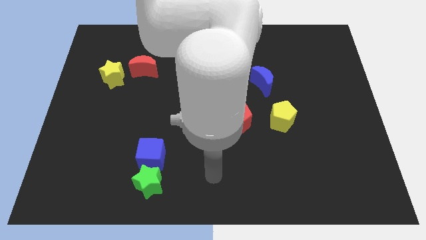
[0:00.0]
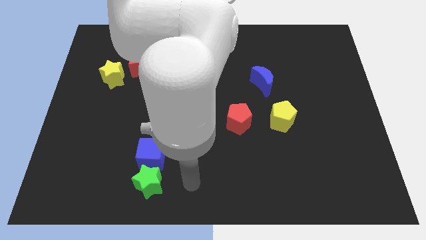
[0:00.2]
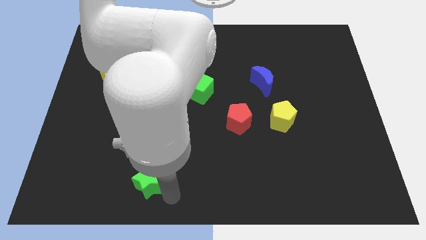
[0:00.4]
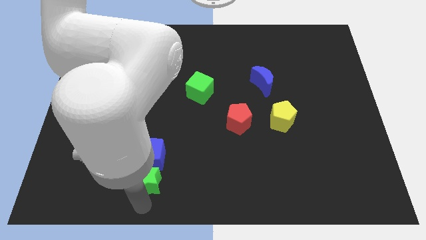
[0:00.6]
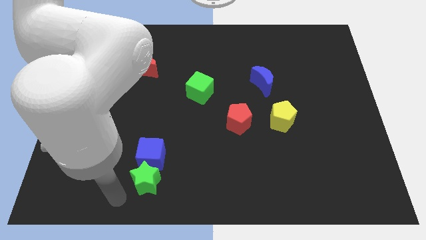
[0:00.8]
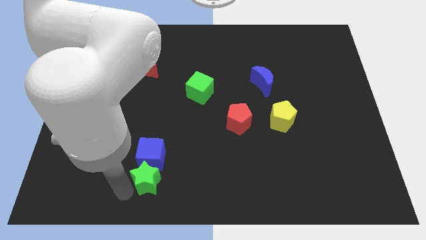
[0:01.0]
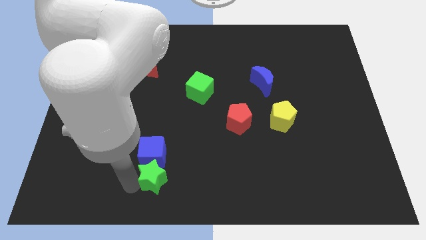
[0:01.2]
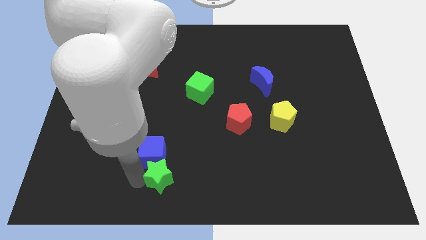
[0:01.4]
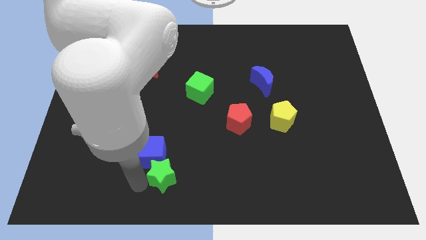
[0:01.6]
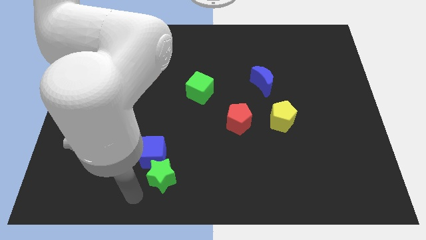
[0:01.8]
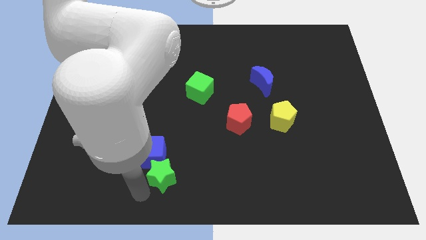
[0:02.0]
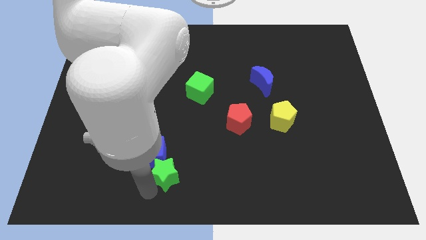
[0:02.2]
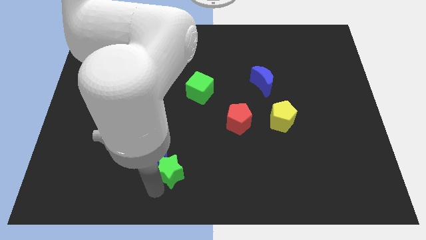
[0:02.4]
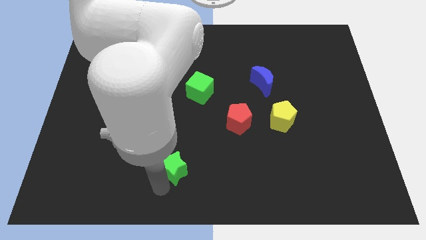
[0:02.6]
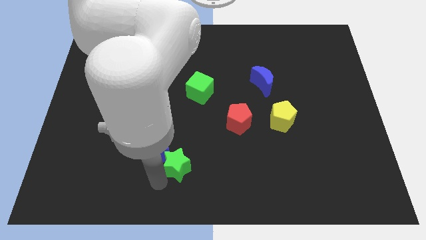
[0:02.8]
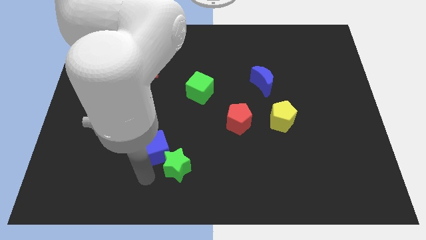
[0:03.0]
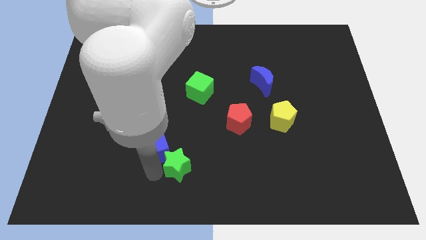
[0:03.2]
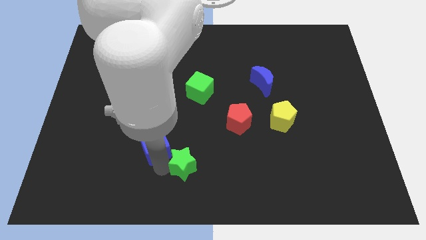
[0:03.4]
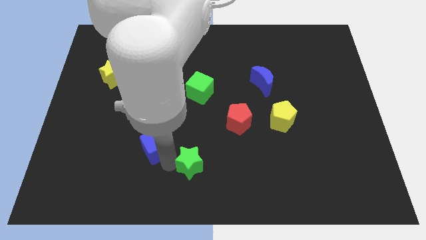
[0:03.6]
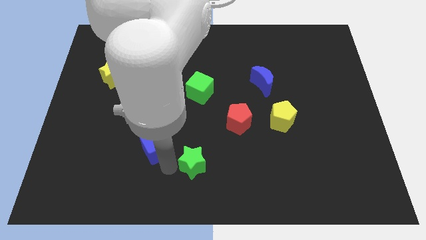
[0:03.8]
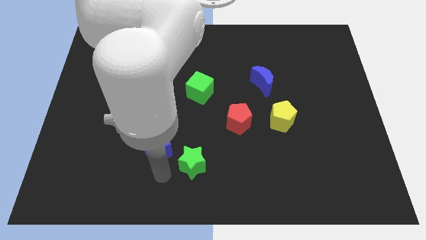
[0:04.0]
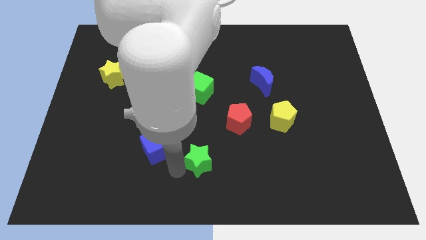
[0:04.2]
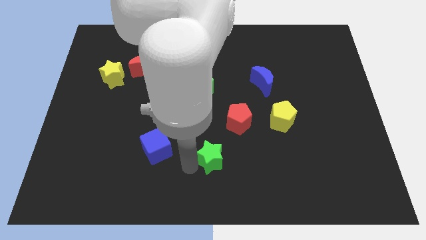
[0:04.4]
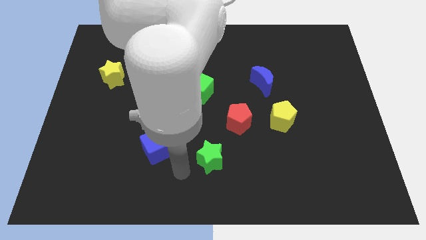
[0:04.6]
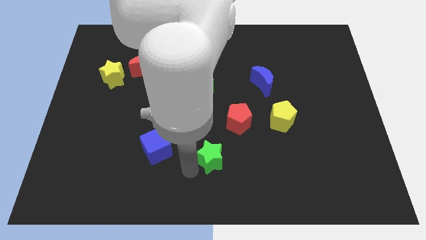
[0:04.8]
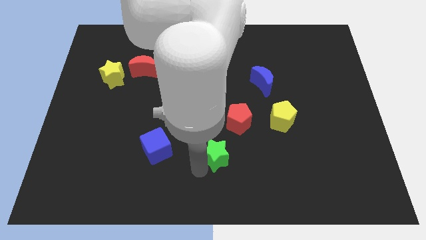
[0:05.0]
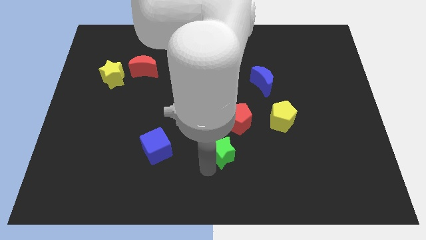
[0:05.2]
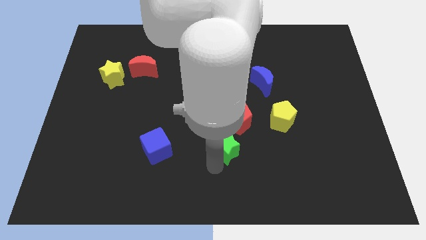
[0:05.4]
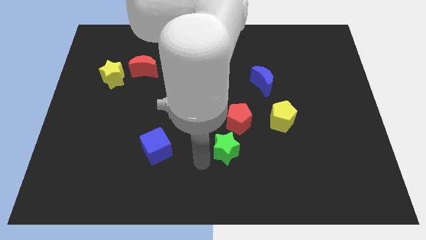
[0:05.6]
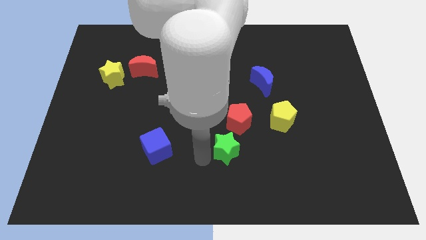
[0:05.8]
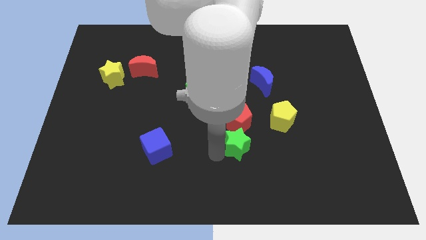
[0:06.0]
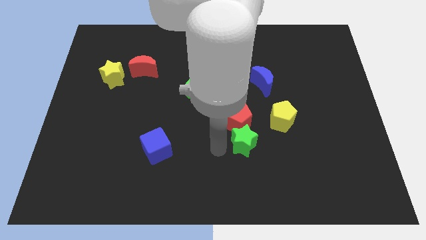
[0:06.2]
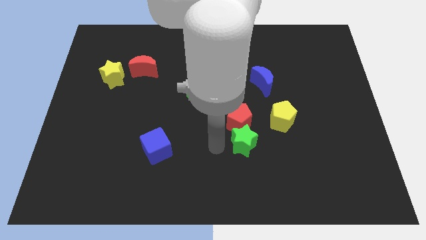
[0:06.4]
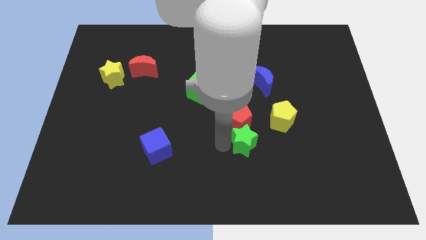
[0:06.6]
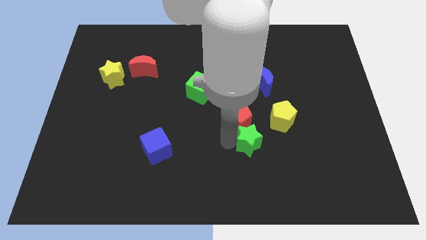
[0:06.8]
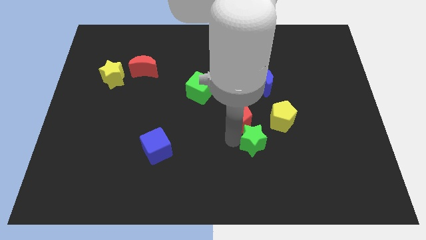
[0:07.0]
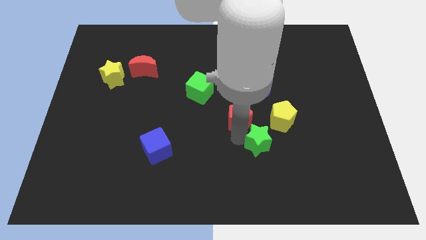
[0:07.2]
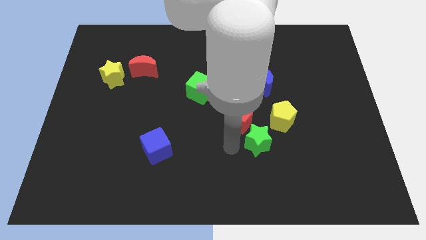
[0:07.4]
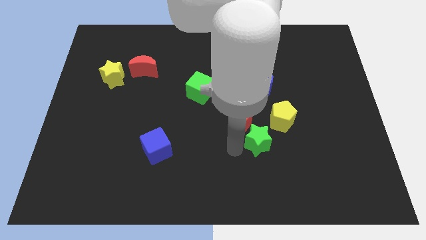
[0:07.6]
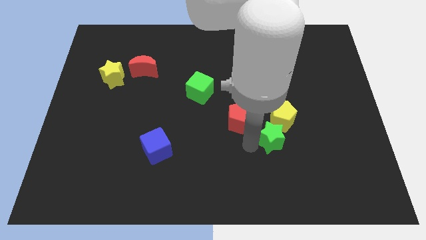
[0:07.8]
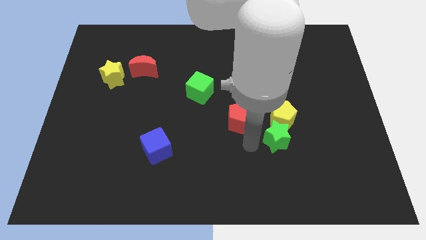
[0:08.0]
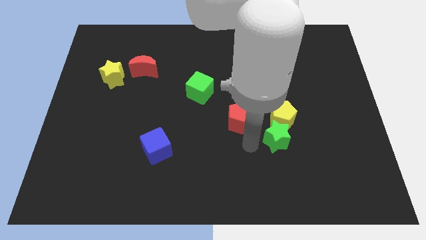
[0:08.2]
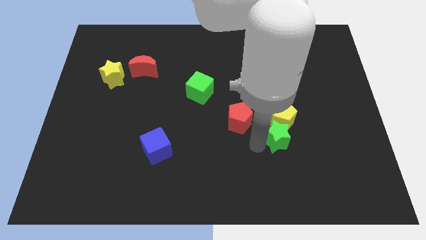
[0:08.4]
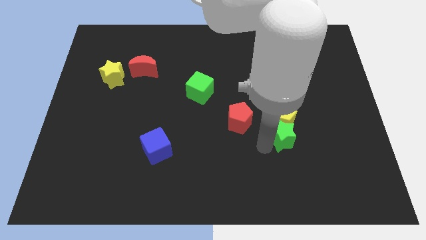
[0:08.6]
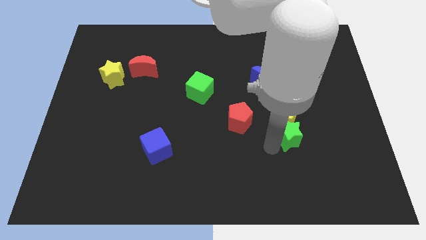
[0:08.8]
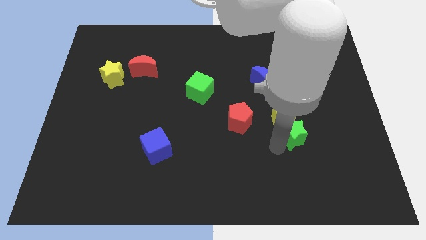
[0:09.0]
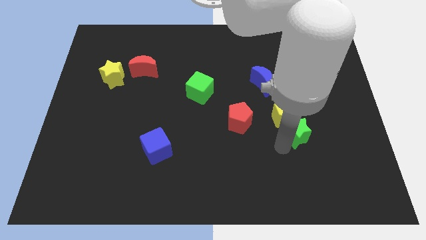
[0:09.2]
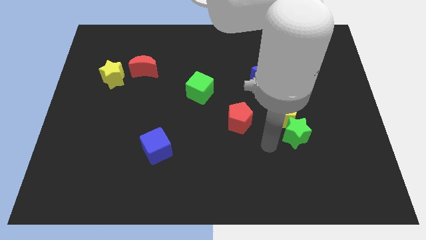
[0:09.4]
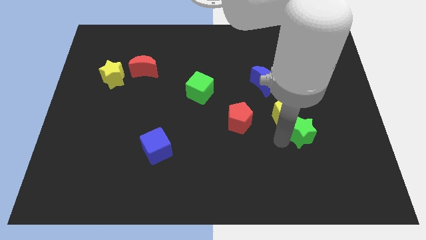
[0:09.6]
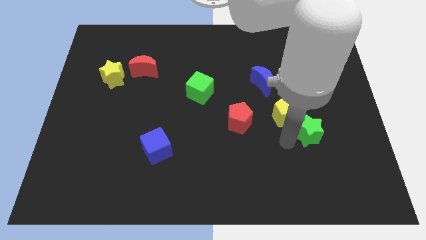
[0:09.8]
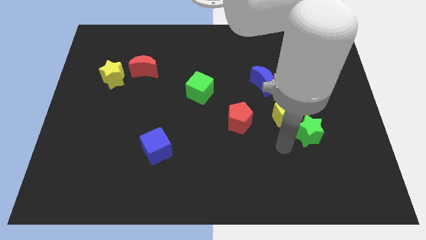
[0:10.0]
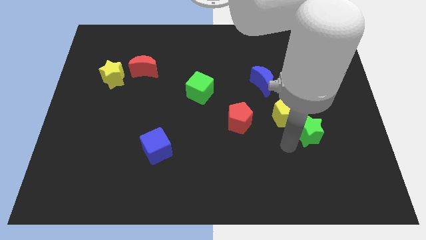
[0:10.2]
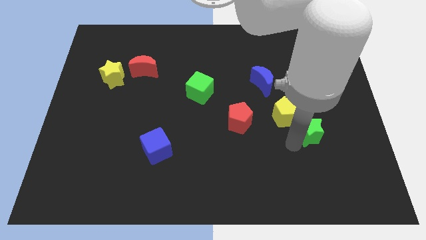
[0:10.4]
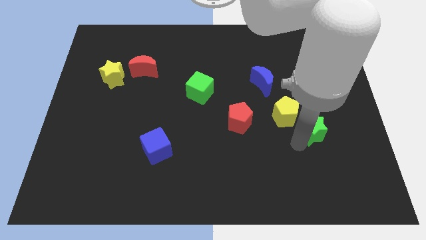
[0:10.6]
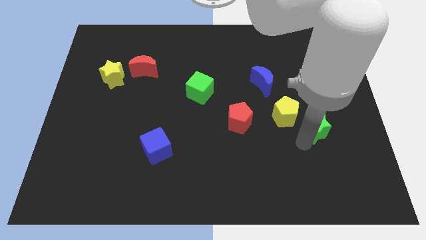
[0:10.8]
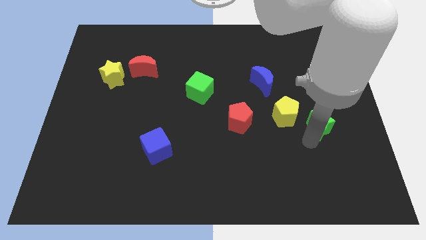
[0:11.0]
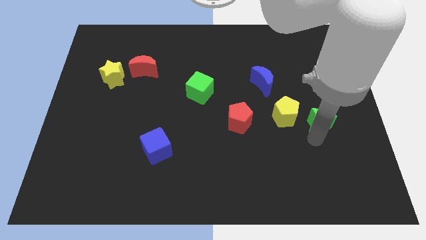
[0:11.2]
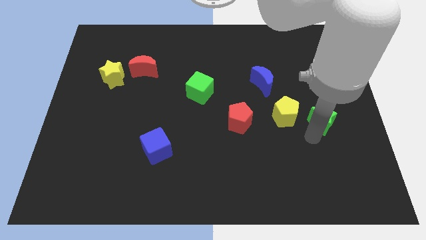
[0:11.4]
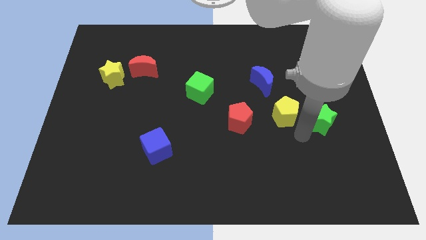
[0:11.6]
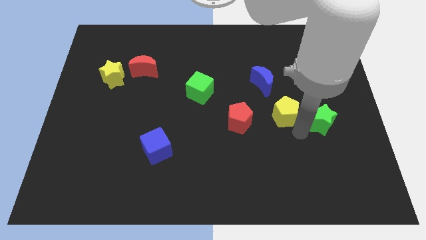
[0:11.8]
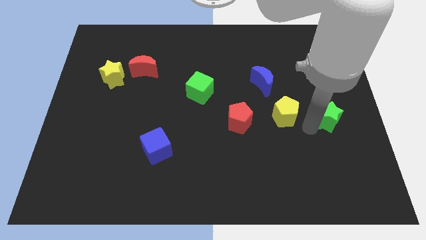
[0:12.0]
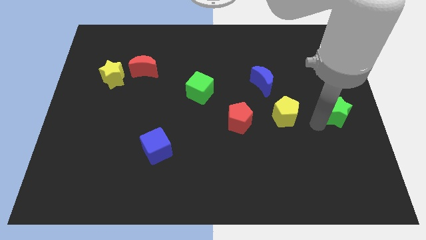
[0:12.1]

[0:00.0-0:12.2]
slide the green star to the right side of the board

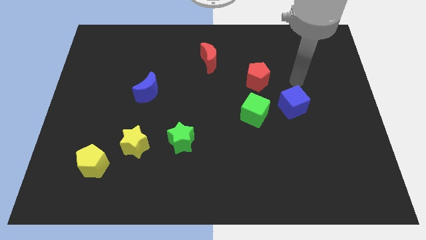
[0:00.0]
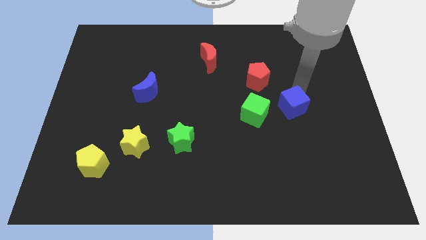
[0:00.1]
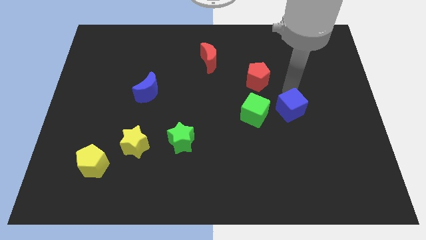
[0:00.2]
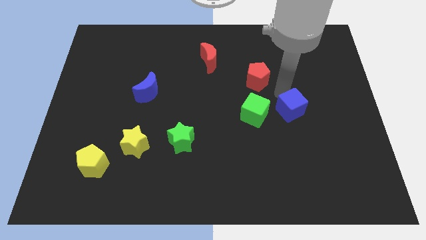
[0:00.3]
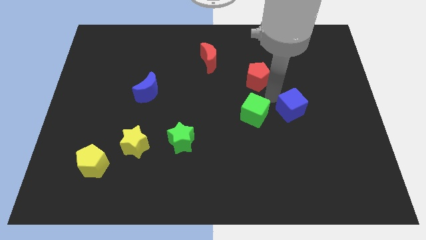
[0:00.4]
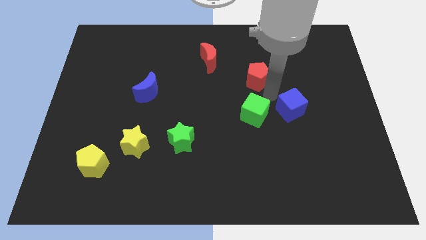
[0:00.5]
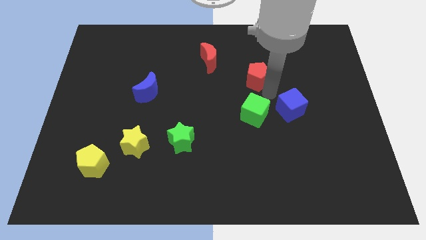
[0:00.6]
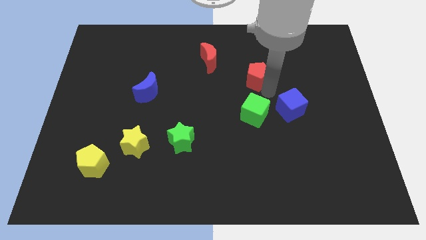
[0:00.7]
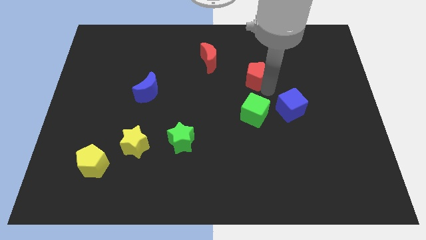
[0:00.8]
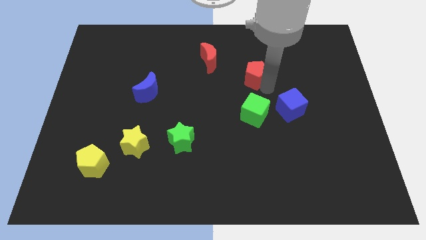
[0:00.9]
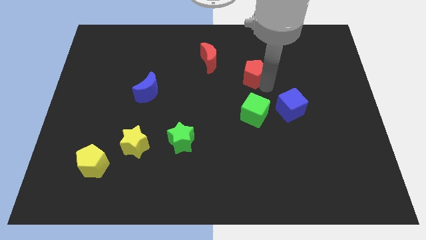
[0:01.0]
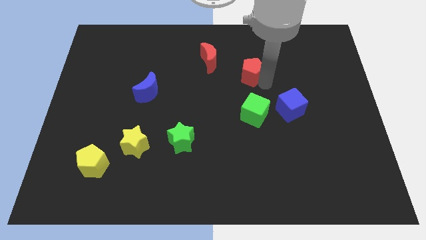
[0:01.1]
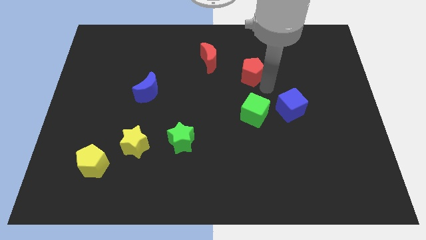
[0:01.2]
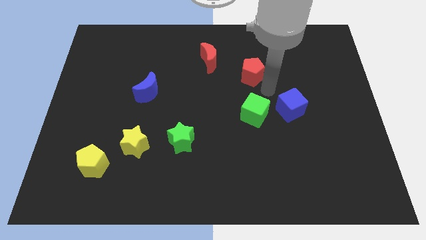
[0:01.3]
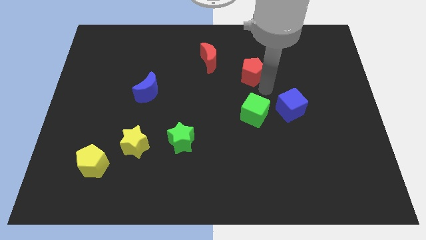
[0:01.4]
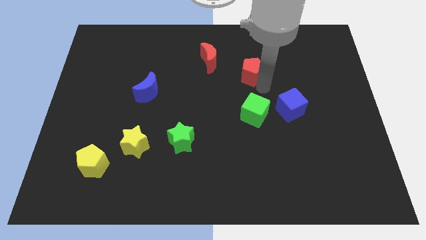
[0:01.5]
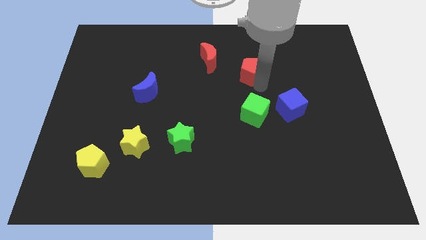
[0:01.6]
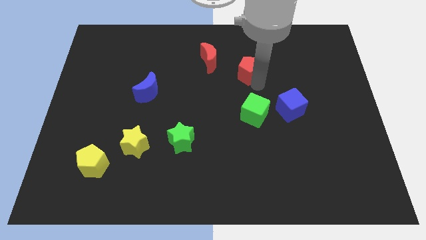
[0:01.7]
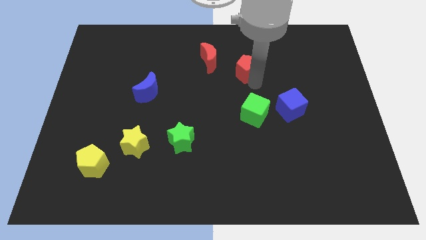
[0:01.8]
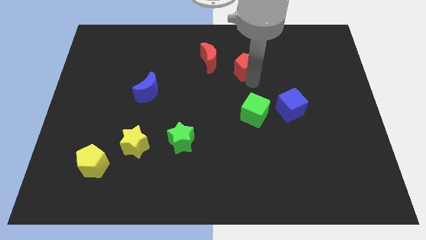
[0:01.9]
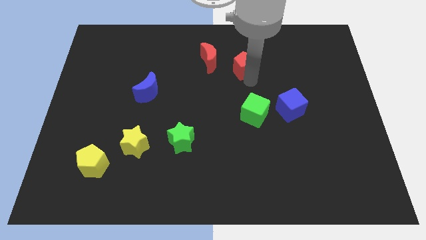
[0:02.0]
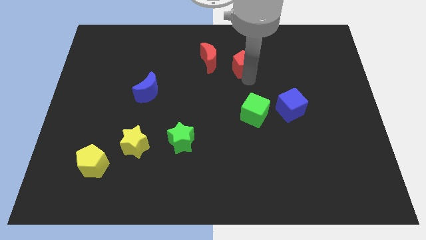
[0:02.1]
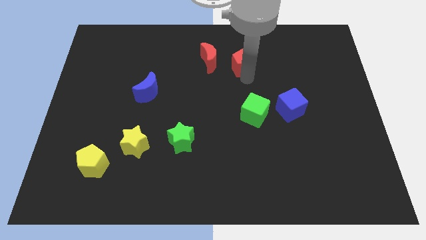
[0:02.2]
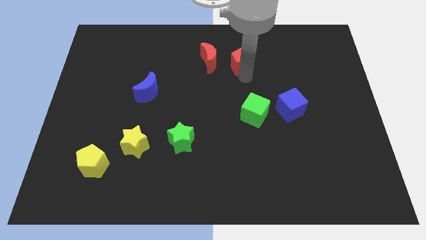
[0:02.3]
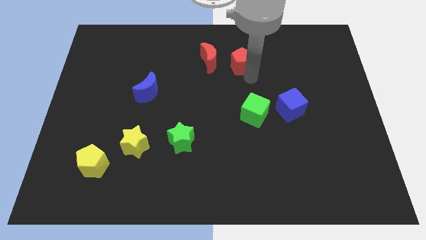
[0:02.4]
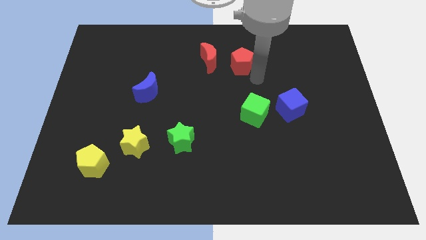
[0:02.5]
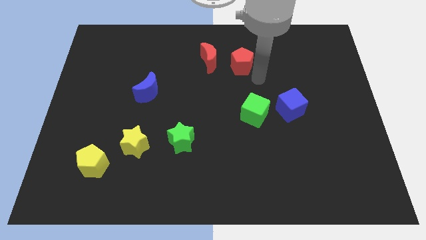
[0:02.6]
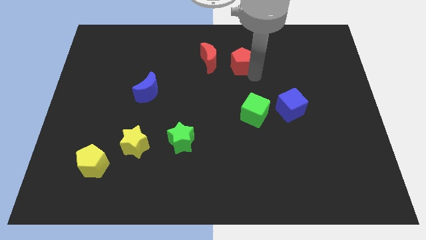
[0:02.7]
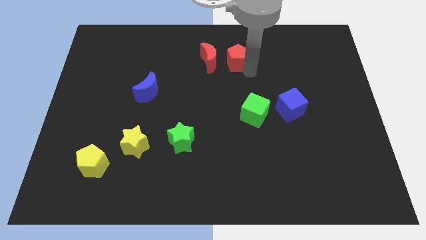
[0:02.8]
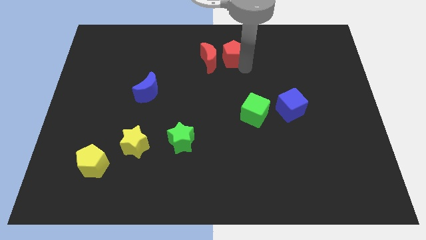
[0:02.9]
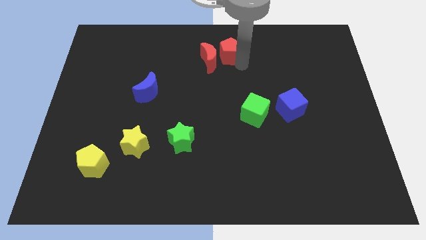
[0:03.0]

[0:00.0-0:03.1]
slide the red pentagon to the top
